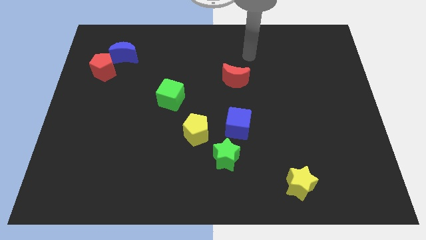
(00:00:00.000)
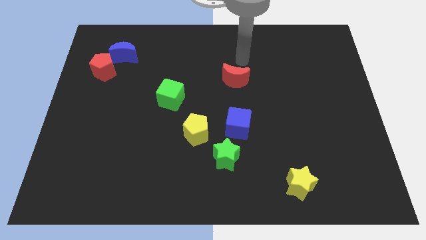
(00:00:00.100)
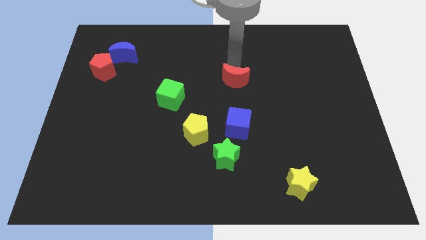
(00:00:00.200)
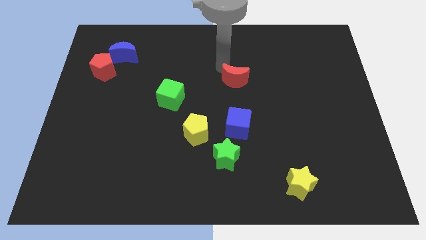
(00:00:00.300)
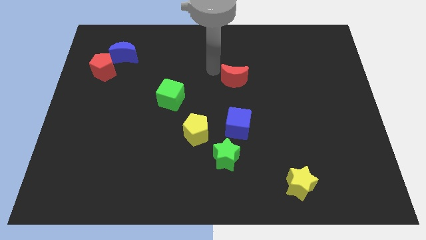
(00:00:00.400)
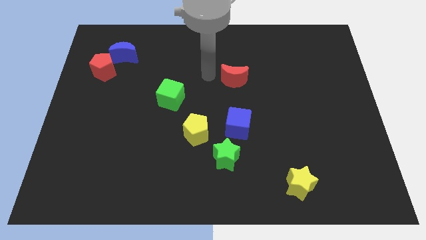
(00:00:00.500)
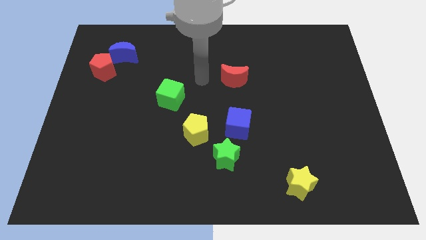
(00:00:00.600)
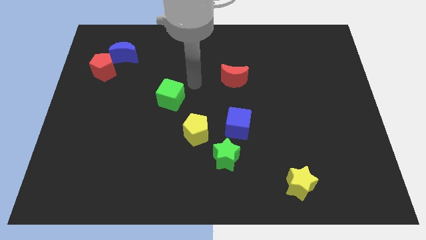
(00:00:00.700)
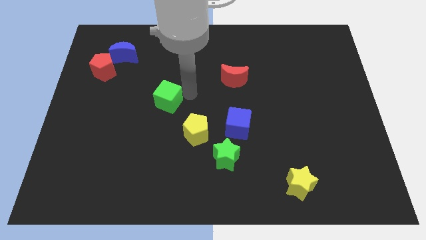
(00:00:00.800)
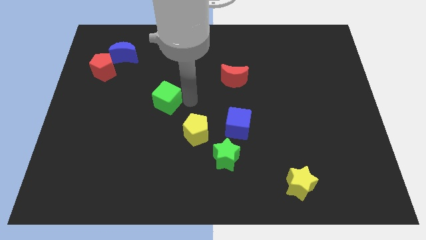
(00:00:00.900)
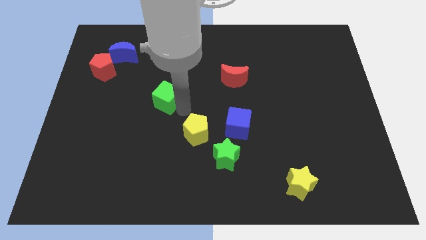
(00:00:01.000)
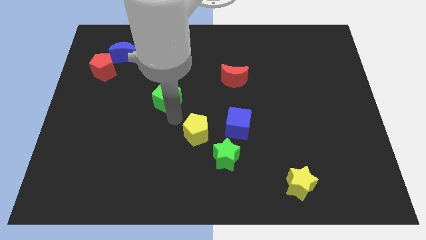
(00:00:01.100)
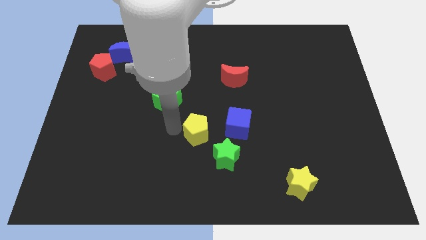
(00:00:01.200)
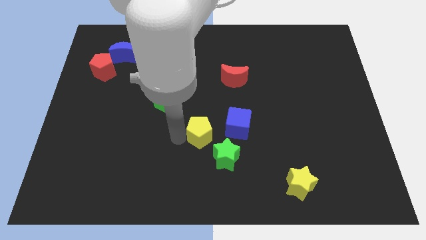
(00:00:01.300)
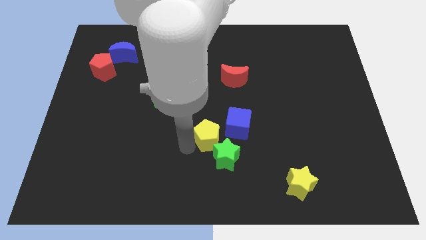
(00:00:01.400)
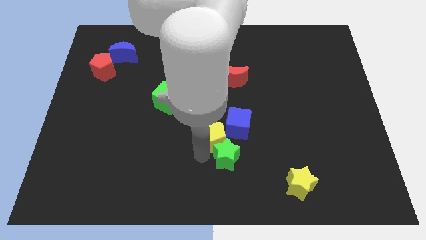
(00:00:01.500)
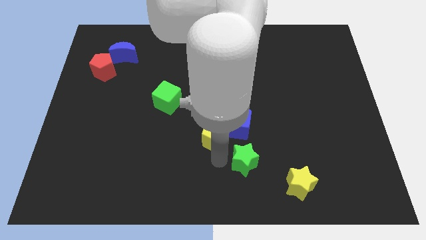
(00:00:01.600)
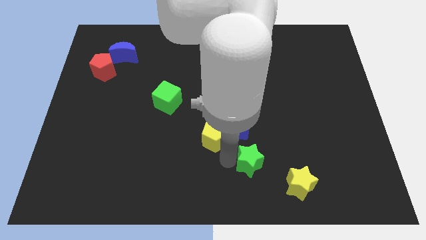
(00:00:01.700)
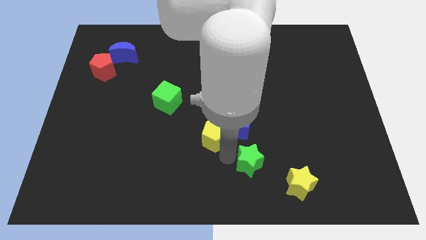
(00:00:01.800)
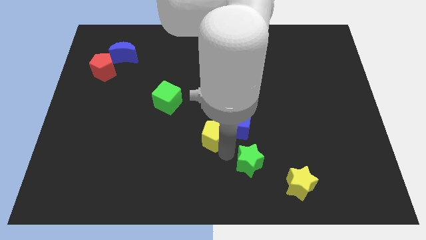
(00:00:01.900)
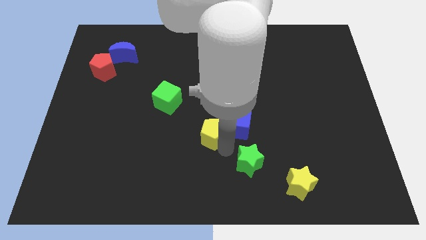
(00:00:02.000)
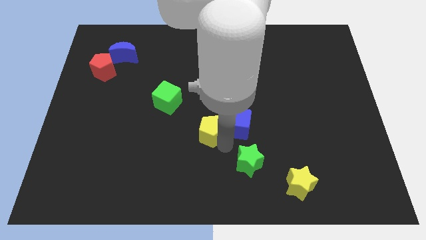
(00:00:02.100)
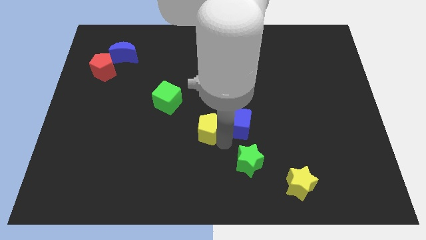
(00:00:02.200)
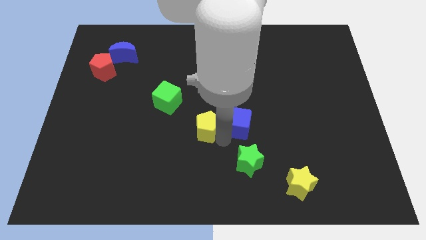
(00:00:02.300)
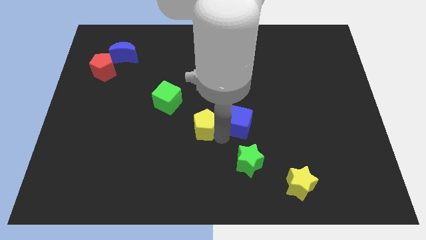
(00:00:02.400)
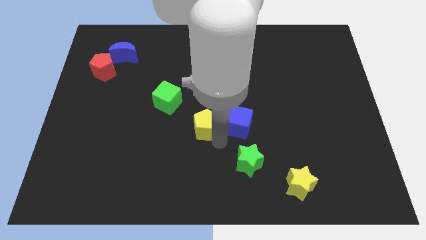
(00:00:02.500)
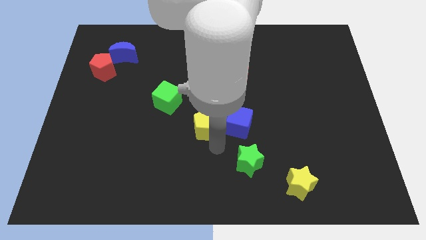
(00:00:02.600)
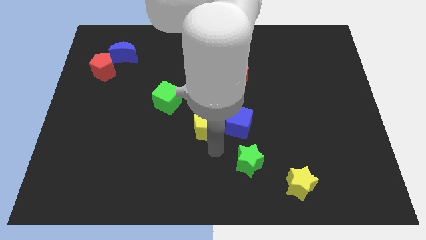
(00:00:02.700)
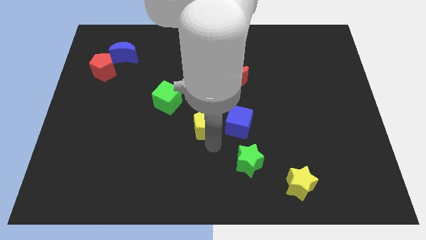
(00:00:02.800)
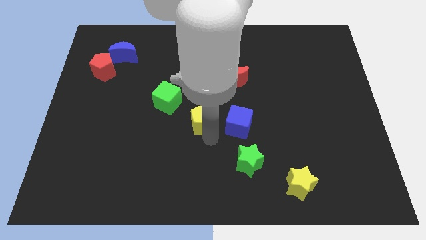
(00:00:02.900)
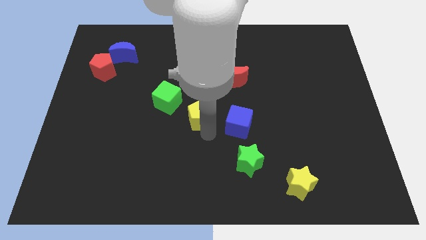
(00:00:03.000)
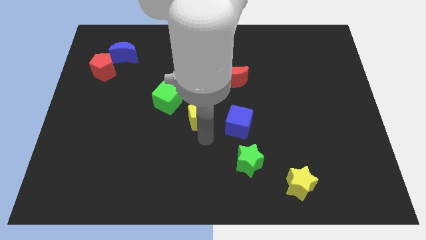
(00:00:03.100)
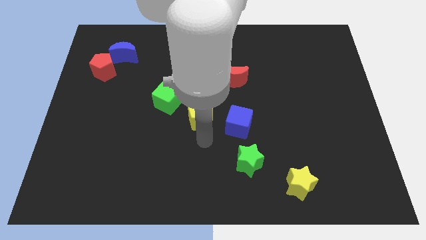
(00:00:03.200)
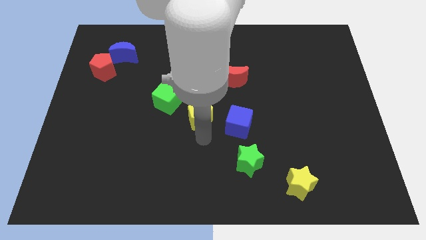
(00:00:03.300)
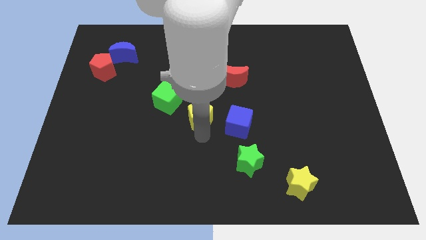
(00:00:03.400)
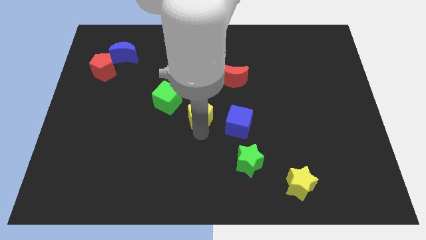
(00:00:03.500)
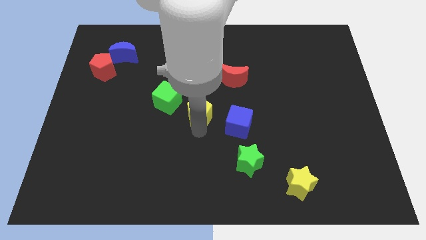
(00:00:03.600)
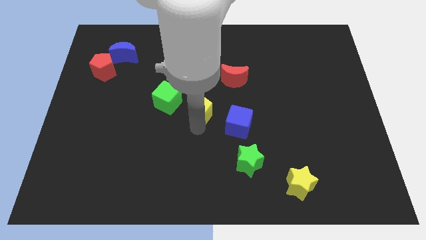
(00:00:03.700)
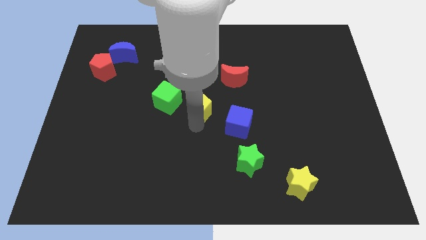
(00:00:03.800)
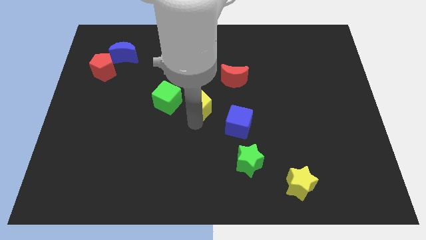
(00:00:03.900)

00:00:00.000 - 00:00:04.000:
slide the yellow pentagon up a little bit

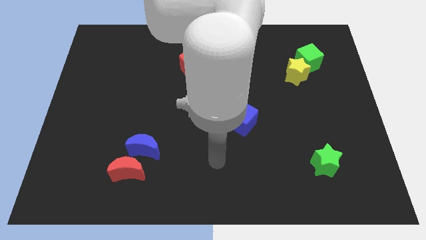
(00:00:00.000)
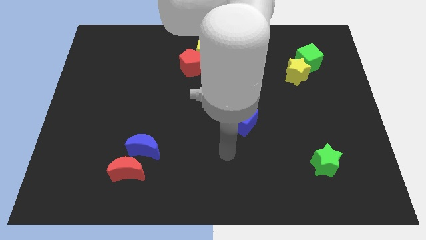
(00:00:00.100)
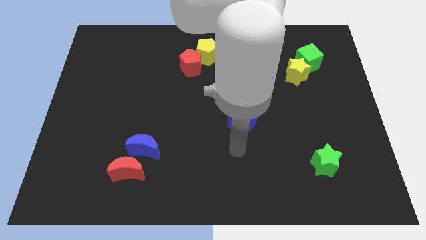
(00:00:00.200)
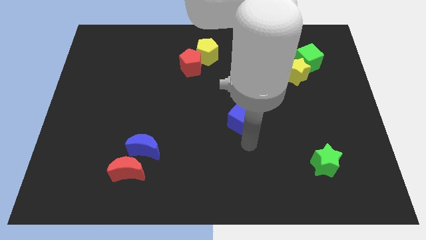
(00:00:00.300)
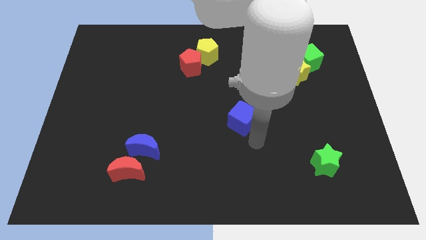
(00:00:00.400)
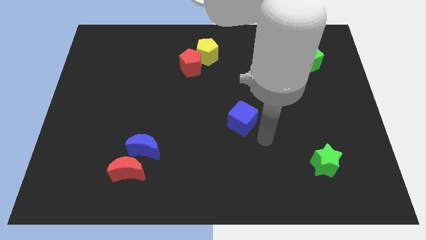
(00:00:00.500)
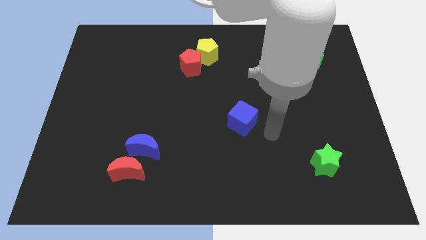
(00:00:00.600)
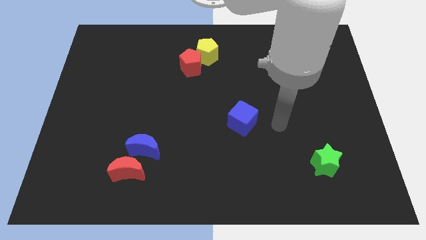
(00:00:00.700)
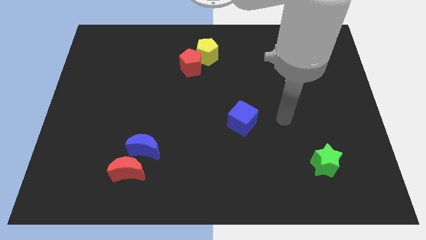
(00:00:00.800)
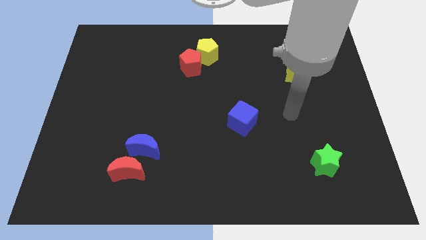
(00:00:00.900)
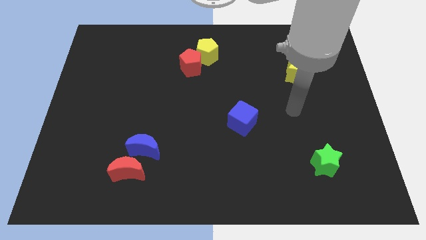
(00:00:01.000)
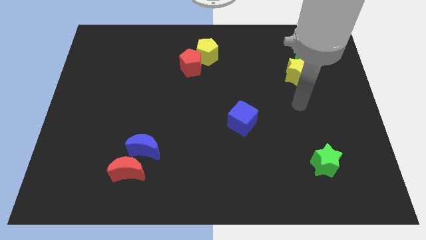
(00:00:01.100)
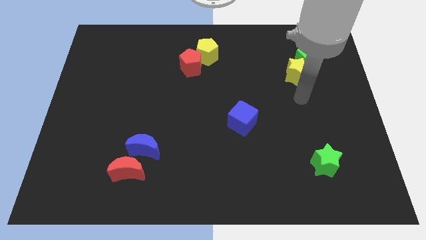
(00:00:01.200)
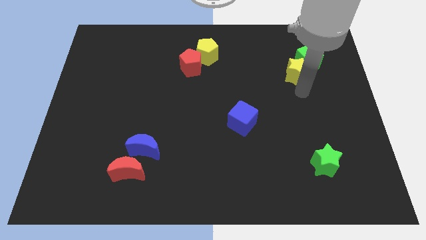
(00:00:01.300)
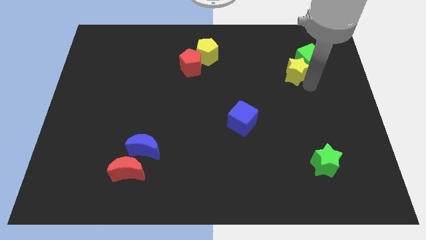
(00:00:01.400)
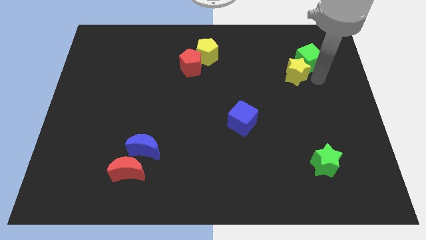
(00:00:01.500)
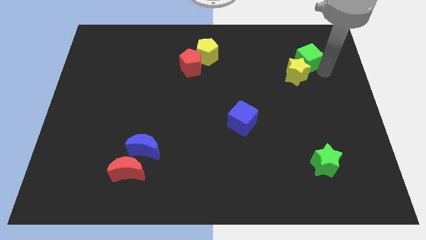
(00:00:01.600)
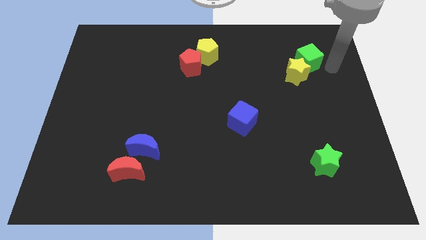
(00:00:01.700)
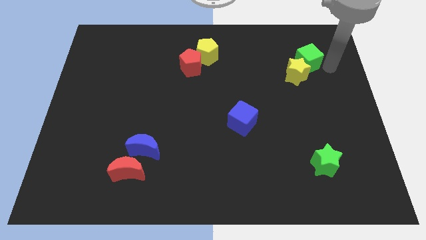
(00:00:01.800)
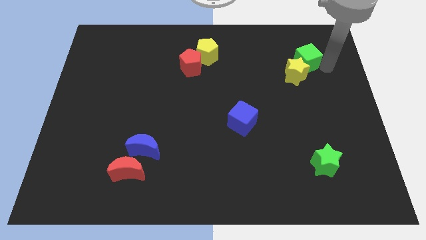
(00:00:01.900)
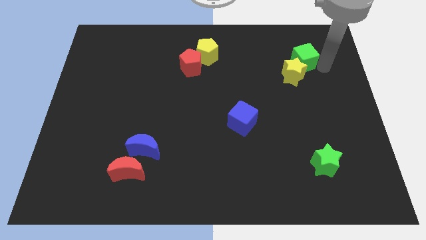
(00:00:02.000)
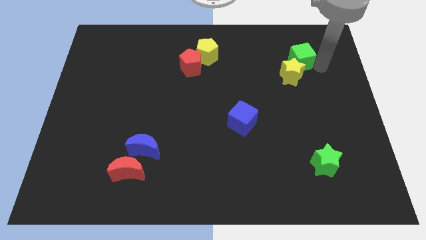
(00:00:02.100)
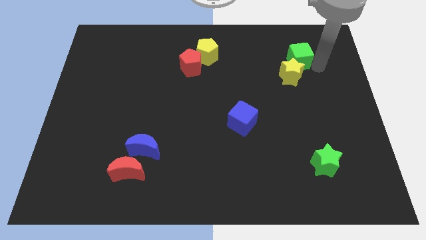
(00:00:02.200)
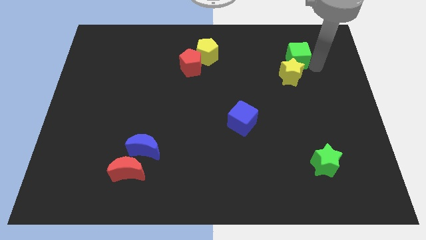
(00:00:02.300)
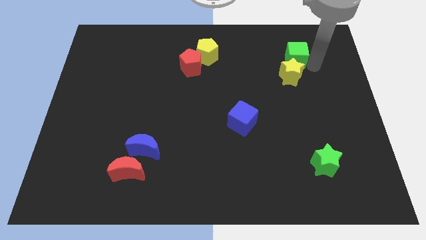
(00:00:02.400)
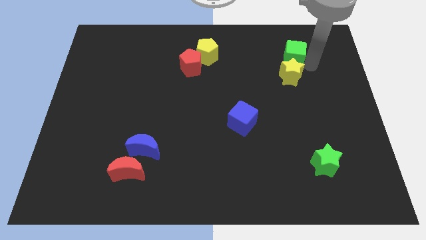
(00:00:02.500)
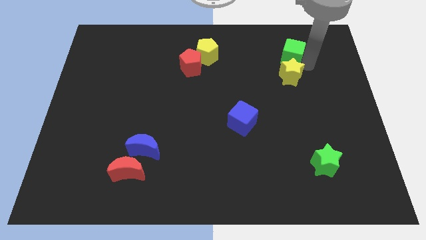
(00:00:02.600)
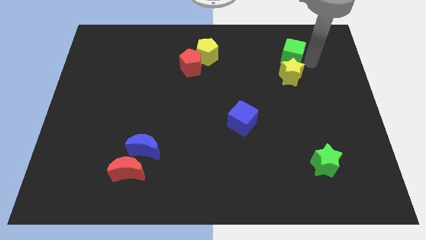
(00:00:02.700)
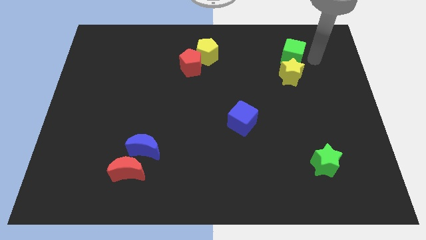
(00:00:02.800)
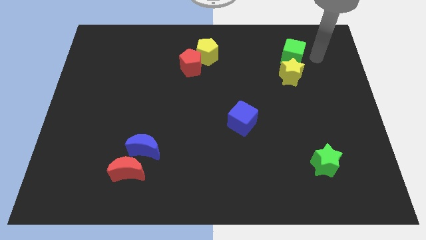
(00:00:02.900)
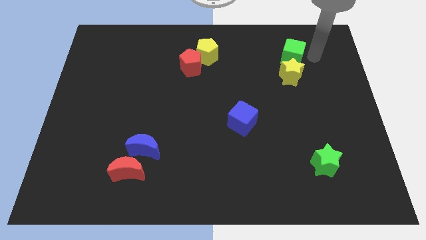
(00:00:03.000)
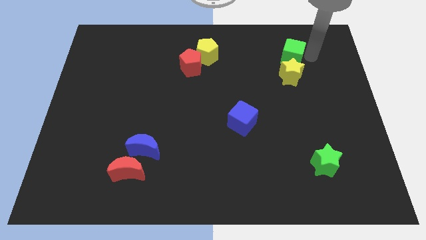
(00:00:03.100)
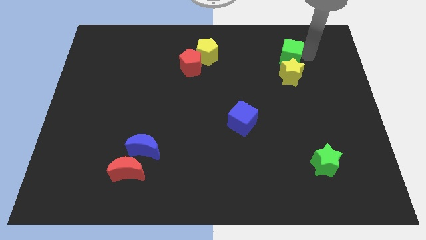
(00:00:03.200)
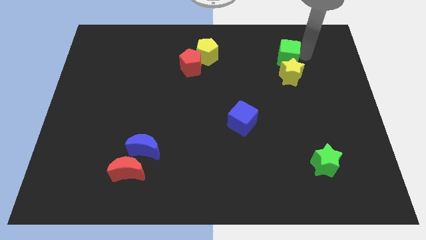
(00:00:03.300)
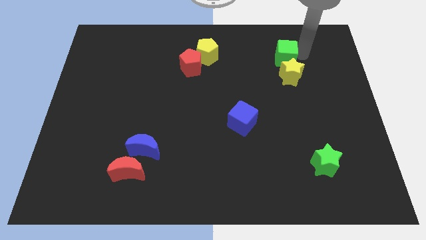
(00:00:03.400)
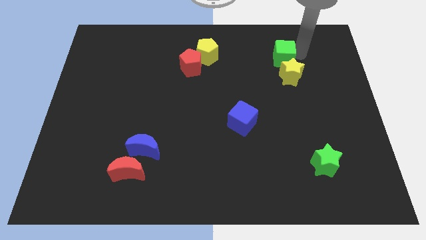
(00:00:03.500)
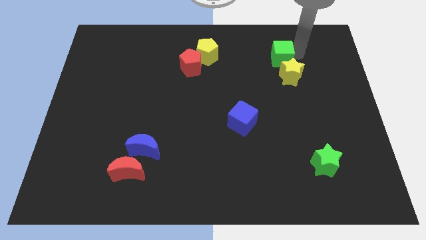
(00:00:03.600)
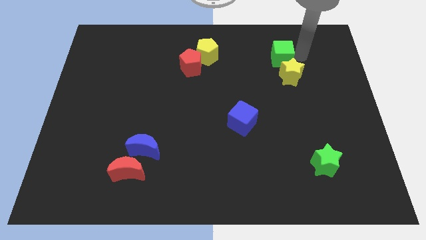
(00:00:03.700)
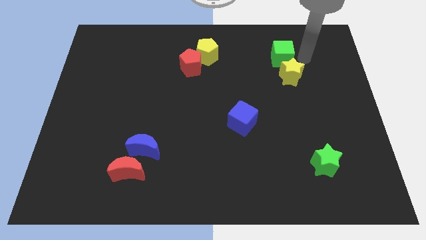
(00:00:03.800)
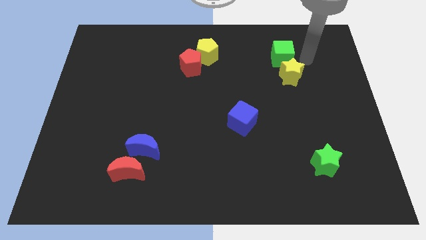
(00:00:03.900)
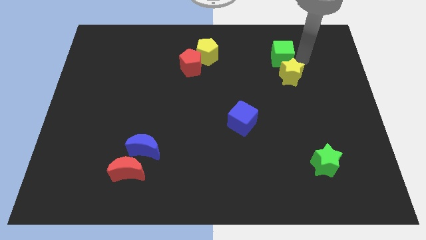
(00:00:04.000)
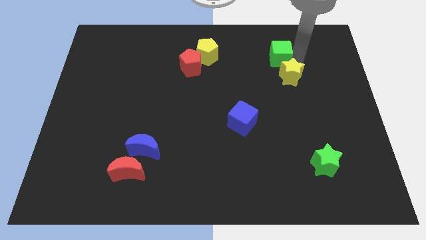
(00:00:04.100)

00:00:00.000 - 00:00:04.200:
slide the green cube to the left a little bit
